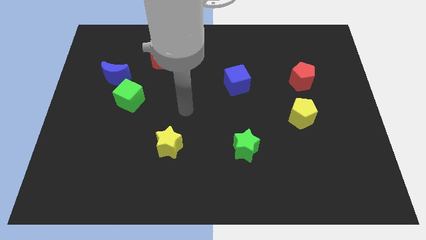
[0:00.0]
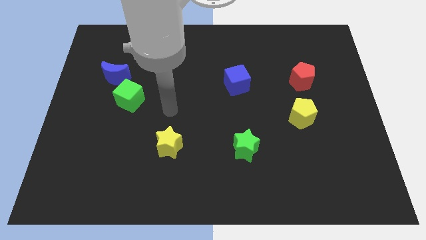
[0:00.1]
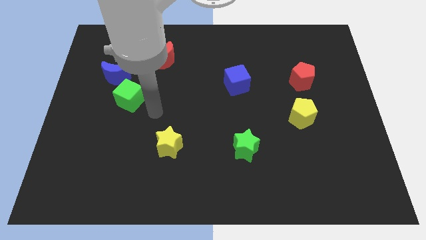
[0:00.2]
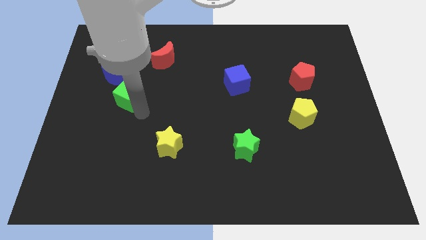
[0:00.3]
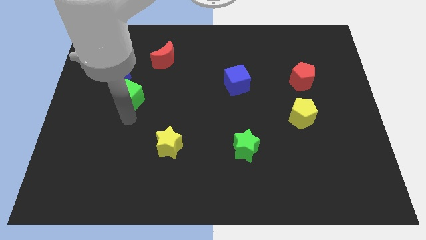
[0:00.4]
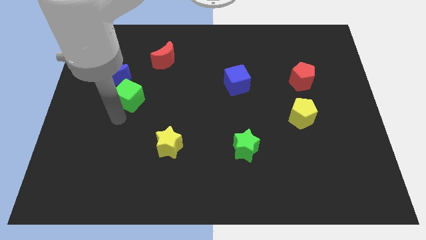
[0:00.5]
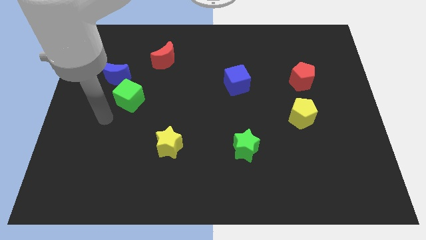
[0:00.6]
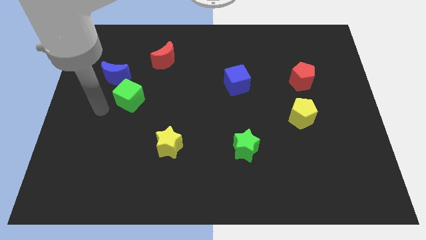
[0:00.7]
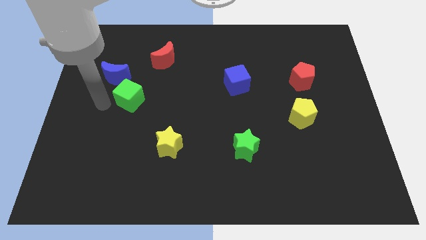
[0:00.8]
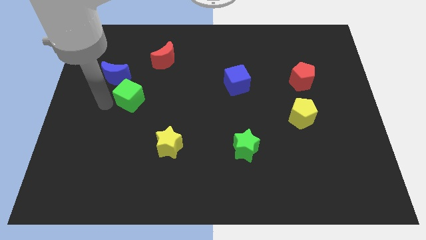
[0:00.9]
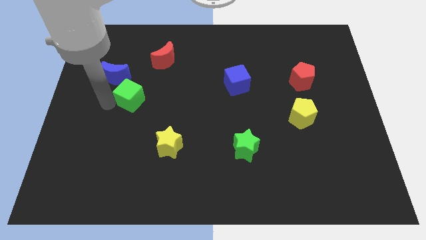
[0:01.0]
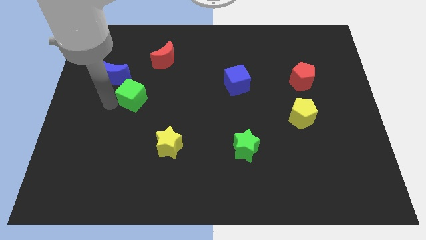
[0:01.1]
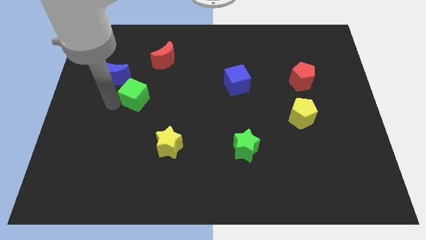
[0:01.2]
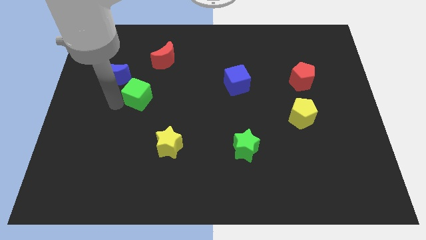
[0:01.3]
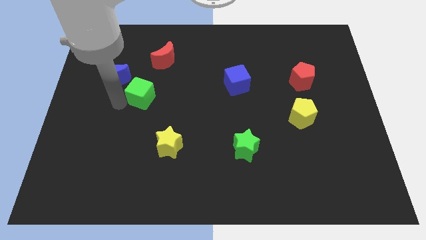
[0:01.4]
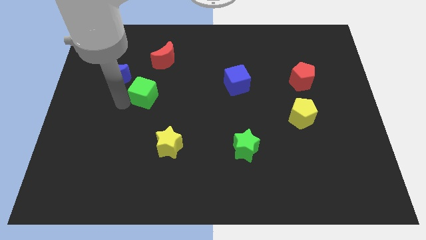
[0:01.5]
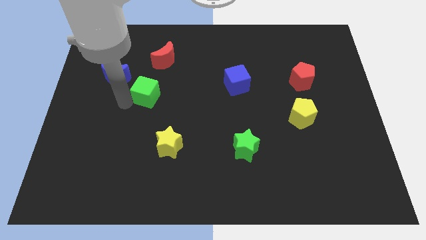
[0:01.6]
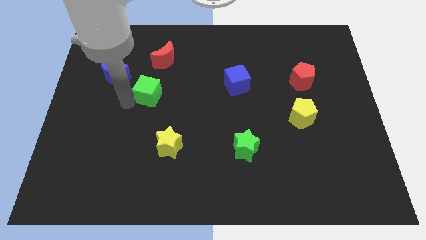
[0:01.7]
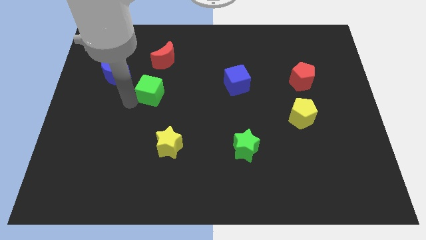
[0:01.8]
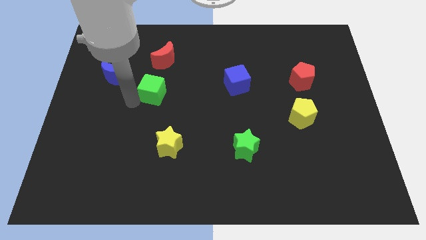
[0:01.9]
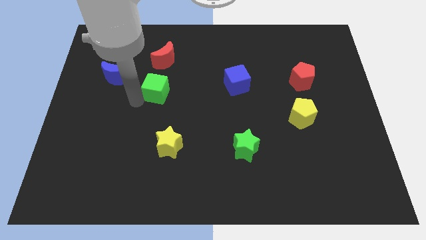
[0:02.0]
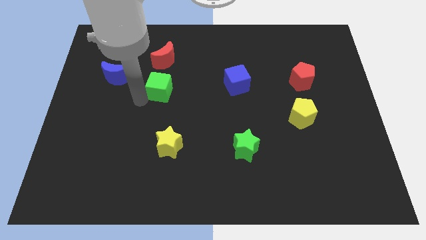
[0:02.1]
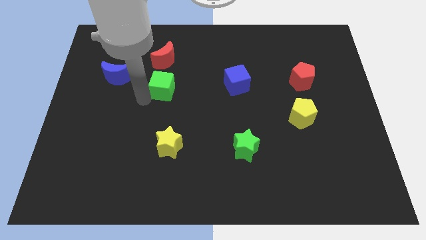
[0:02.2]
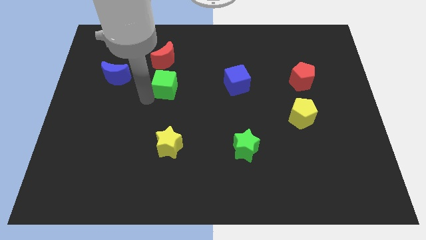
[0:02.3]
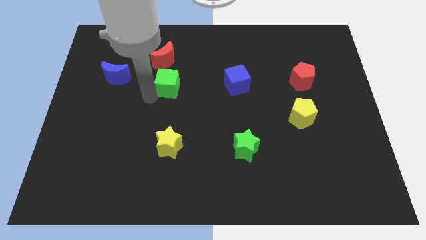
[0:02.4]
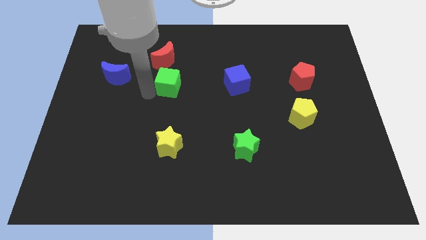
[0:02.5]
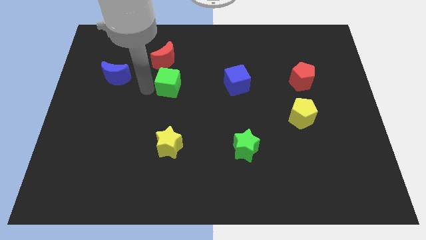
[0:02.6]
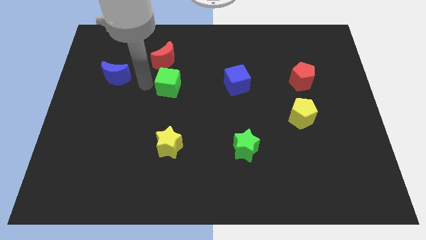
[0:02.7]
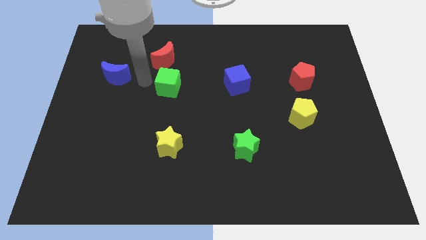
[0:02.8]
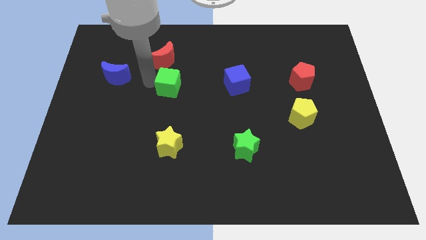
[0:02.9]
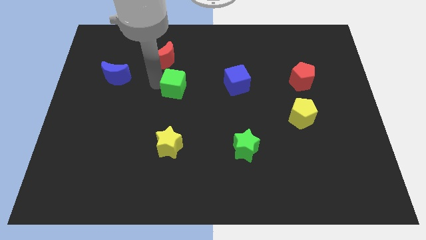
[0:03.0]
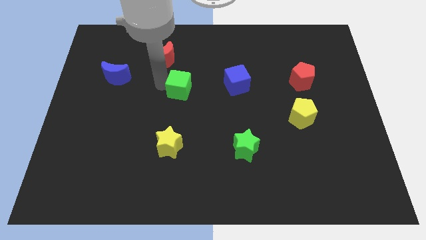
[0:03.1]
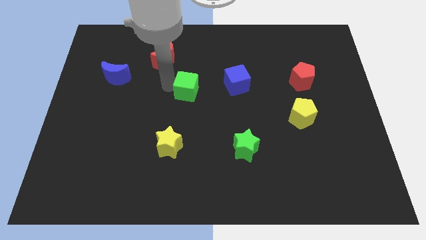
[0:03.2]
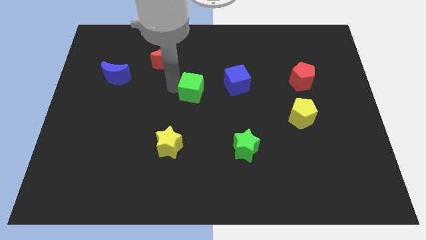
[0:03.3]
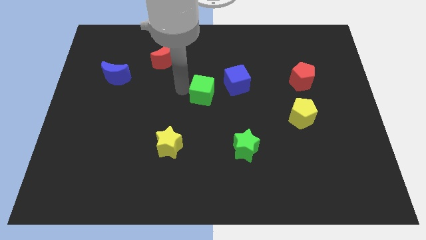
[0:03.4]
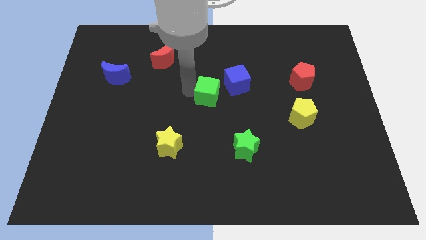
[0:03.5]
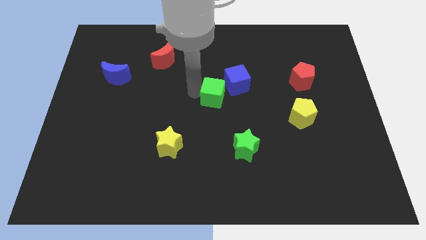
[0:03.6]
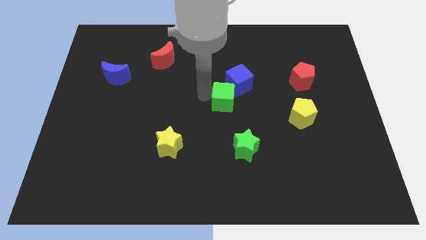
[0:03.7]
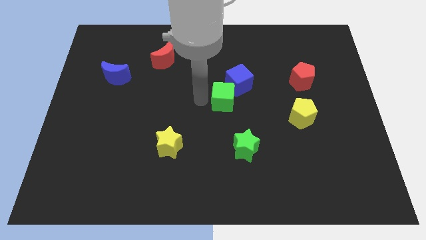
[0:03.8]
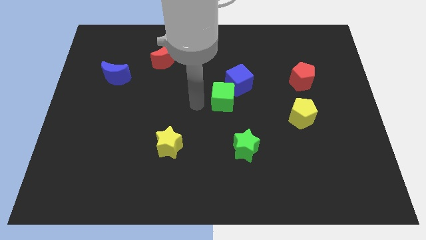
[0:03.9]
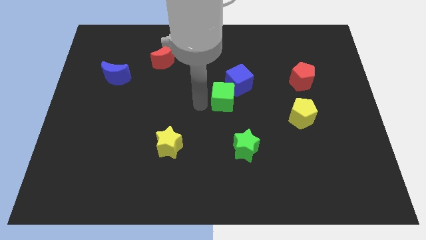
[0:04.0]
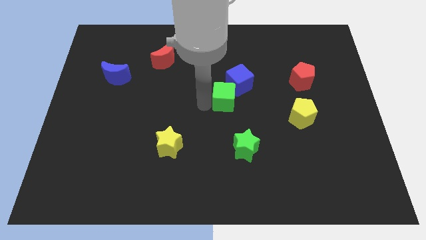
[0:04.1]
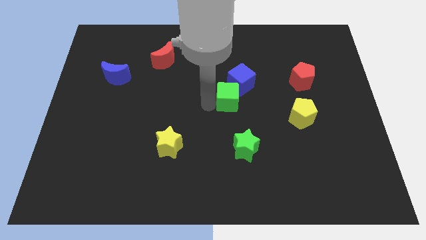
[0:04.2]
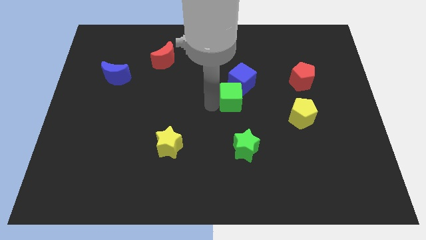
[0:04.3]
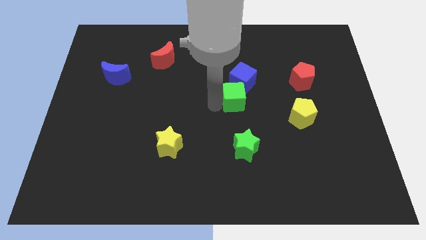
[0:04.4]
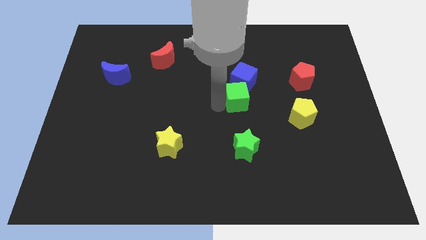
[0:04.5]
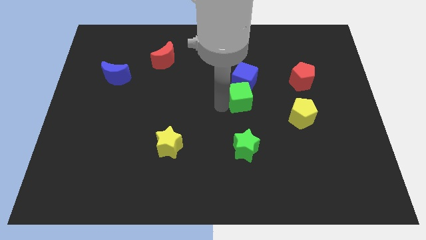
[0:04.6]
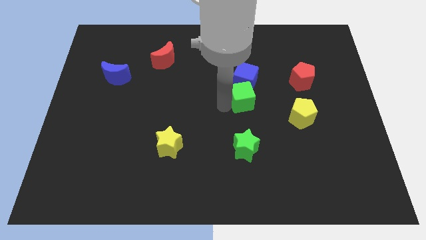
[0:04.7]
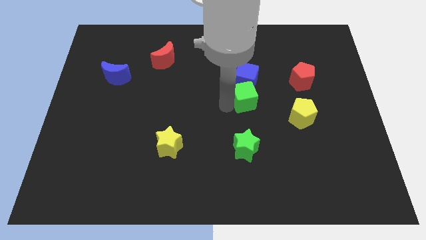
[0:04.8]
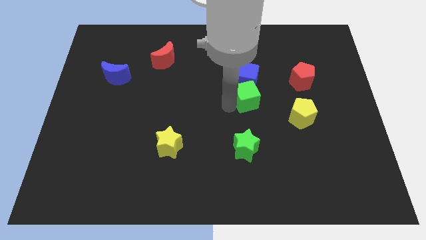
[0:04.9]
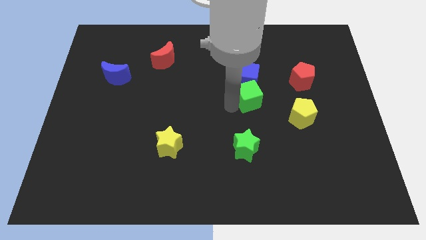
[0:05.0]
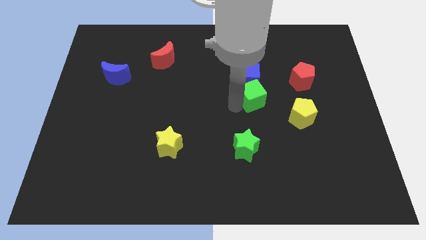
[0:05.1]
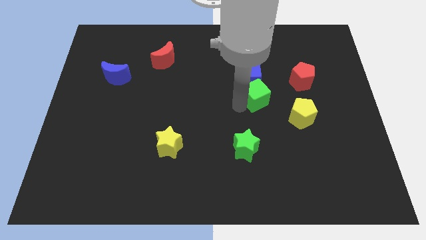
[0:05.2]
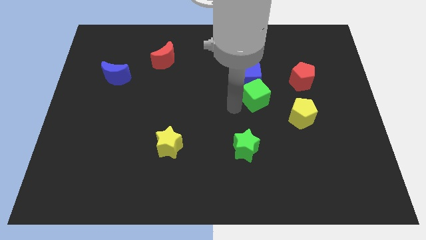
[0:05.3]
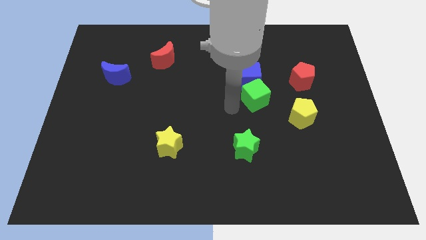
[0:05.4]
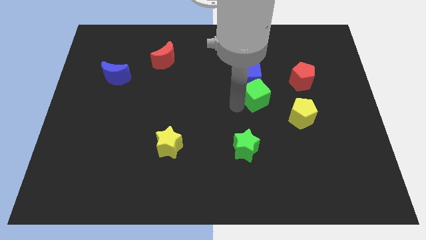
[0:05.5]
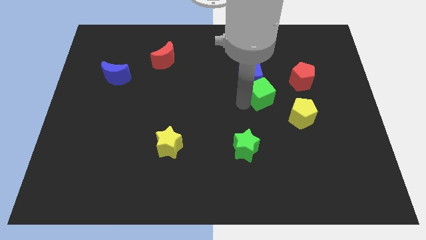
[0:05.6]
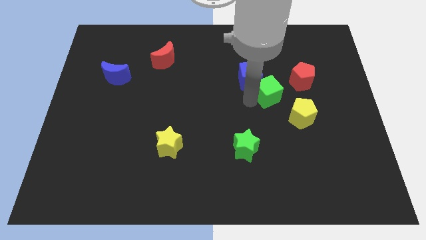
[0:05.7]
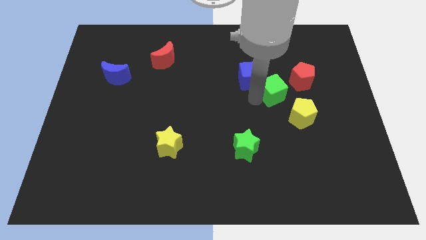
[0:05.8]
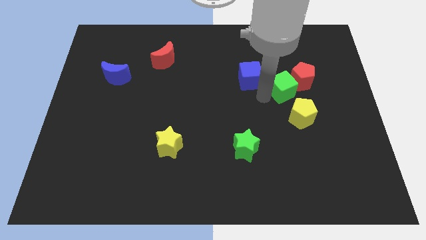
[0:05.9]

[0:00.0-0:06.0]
move the green cube close to the red pentagon

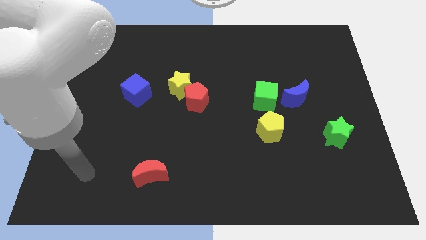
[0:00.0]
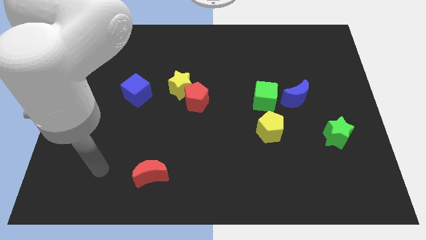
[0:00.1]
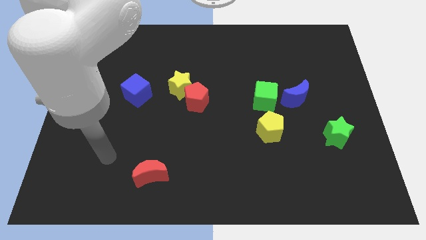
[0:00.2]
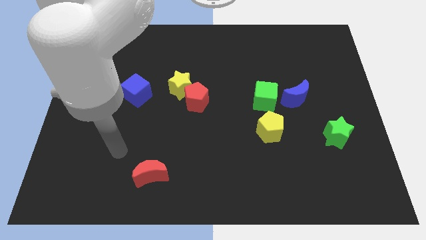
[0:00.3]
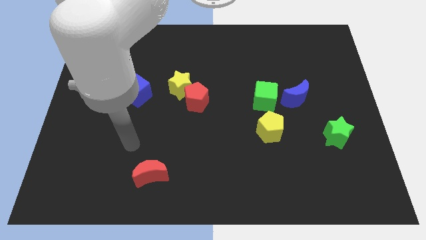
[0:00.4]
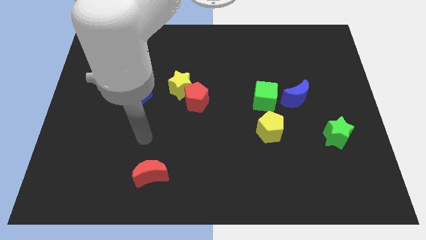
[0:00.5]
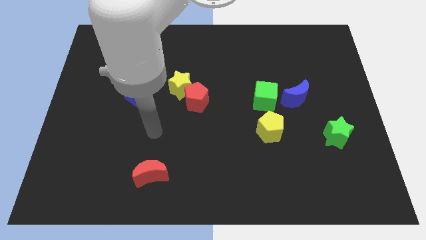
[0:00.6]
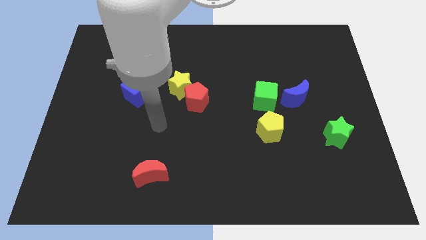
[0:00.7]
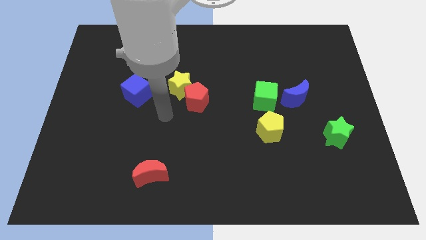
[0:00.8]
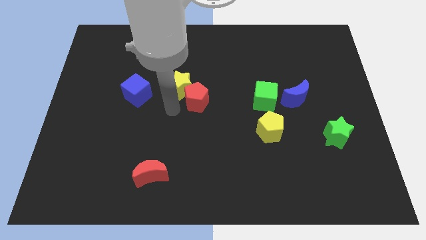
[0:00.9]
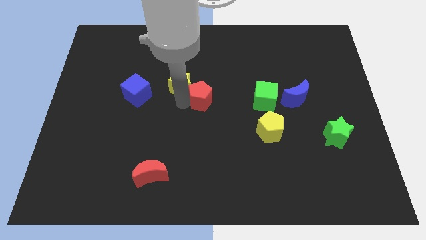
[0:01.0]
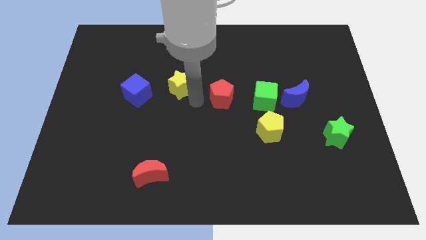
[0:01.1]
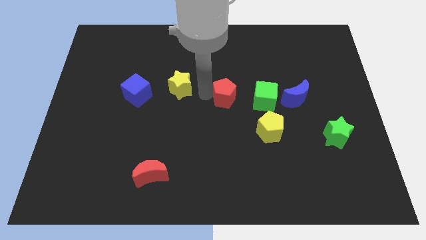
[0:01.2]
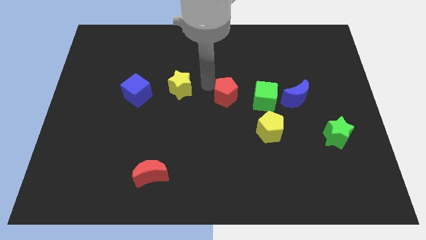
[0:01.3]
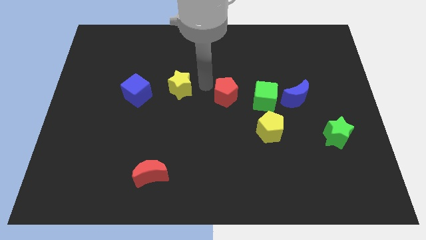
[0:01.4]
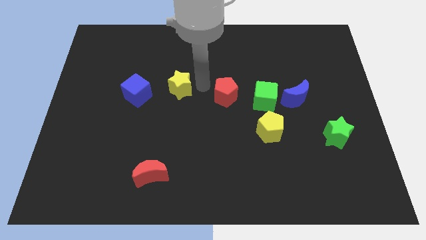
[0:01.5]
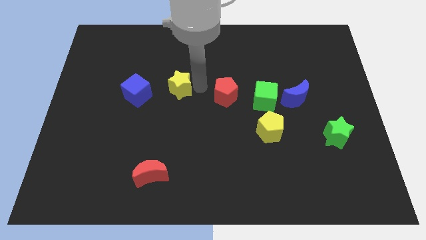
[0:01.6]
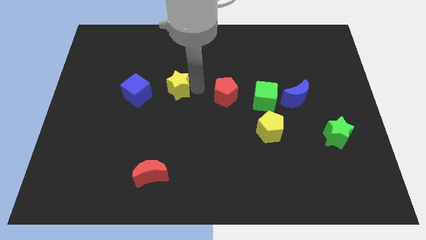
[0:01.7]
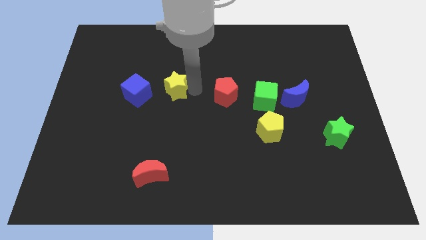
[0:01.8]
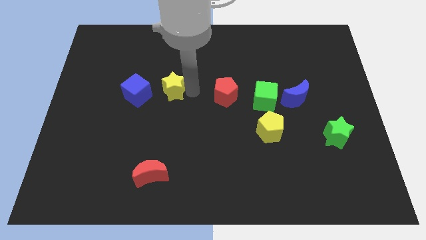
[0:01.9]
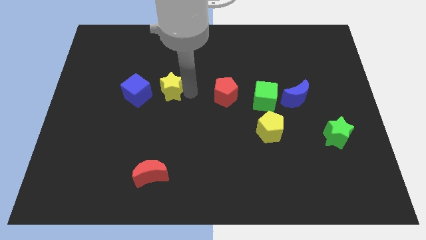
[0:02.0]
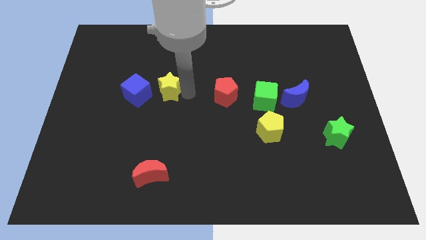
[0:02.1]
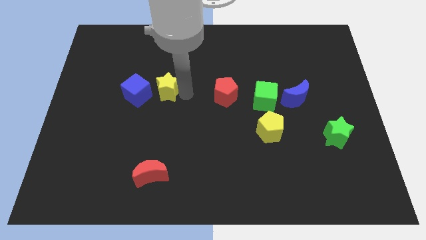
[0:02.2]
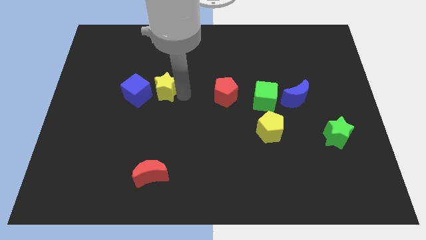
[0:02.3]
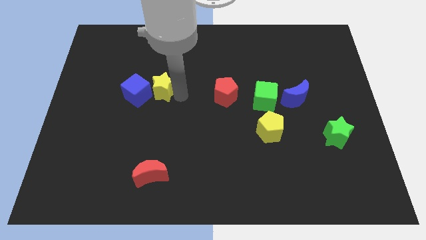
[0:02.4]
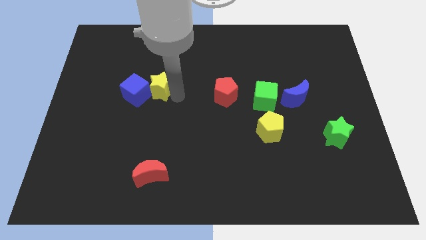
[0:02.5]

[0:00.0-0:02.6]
slide the yellow star close to the blue cube
